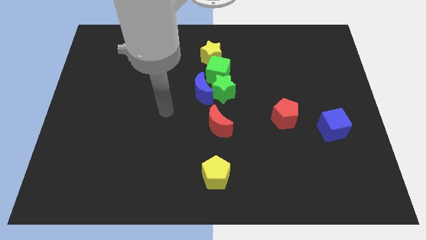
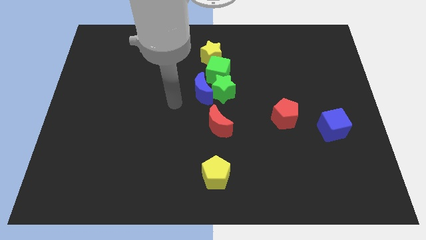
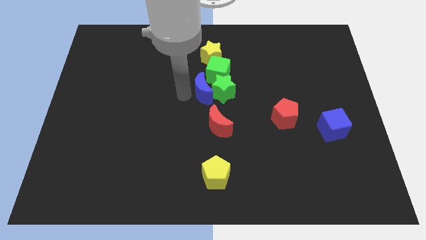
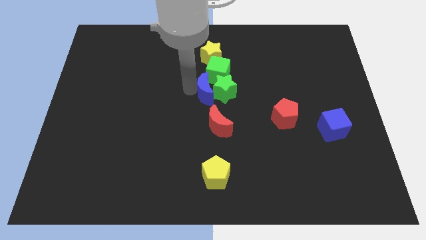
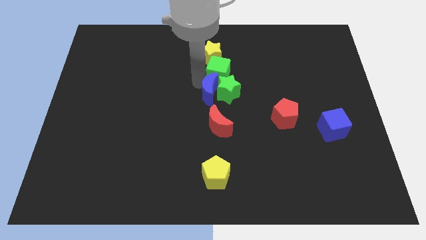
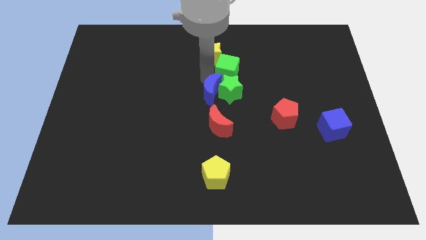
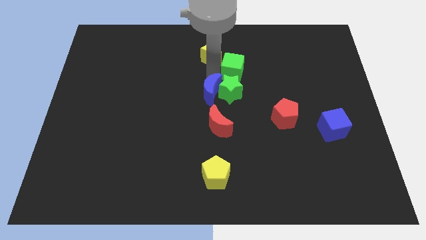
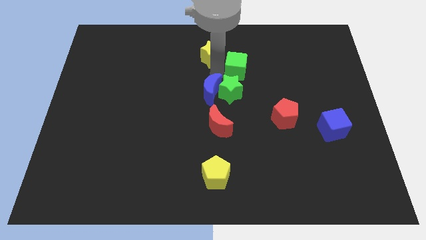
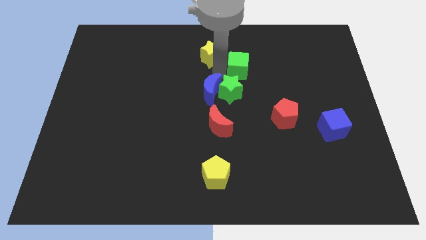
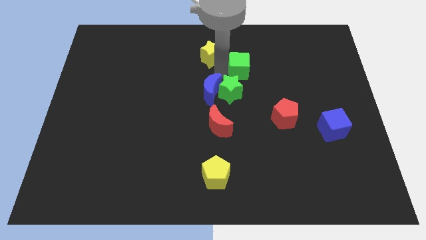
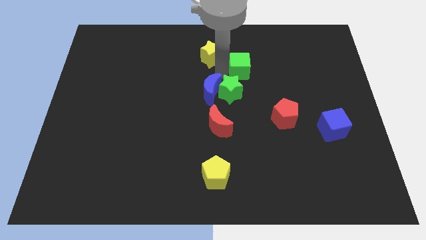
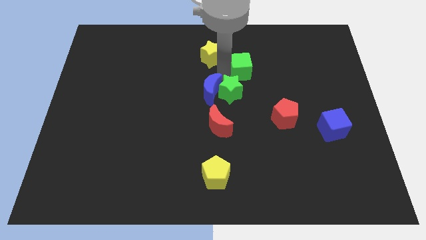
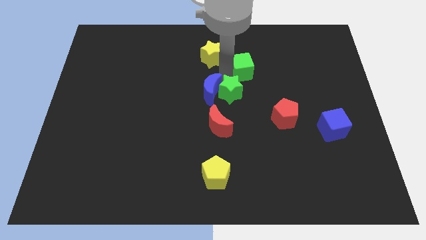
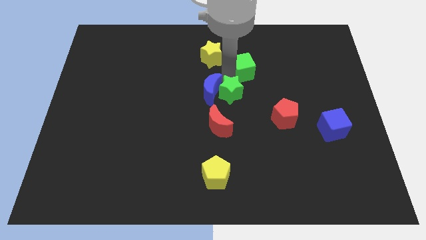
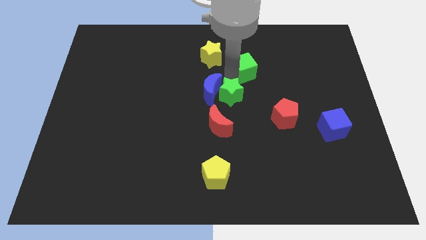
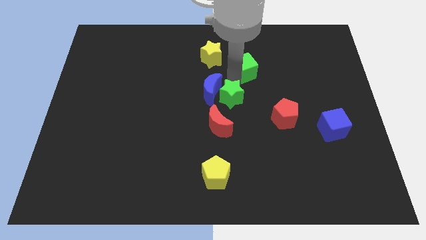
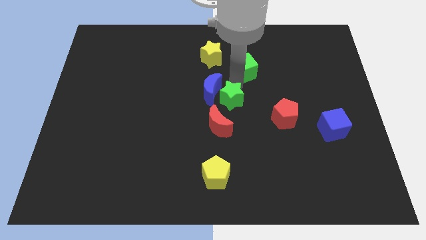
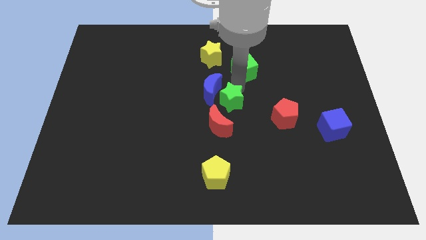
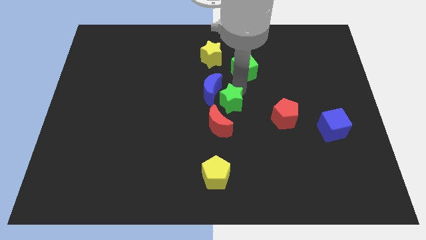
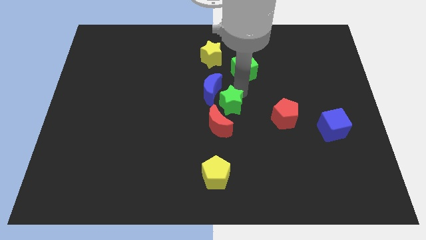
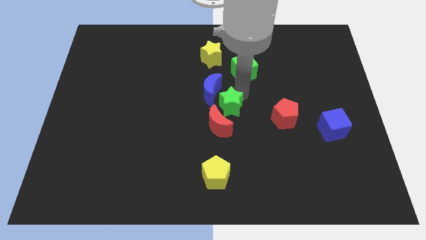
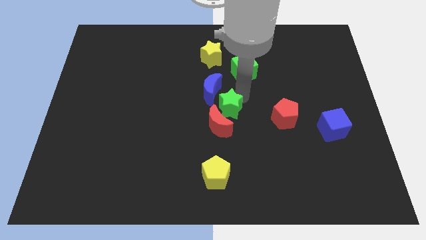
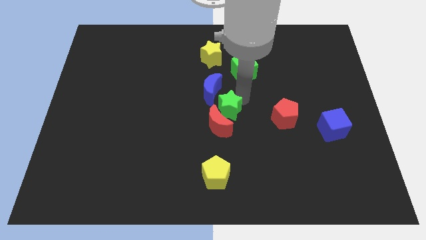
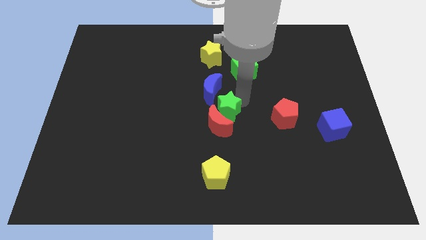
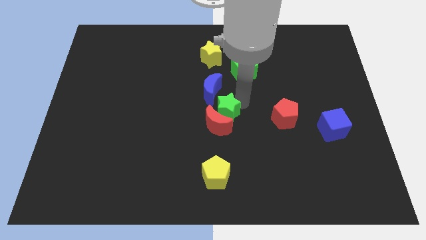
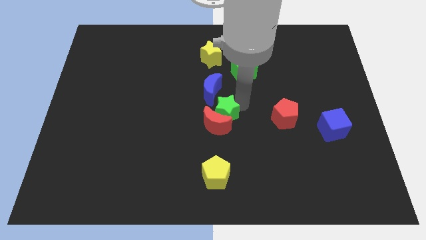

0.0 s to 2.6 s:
separate the green star from the blue moon and green cube

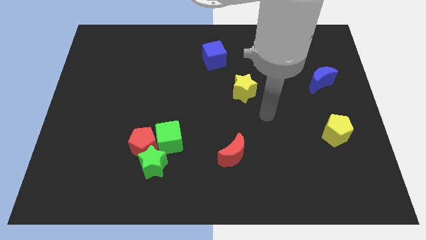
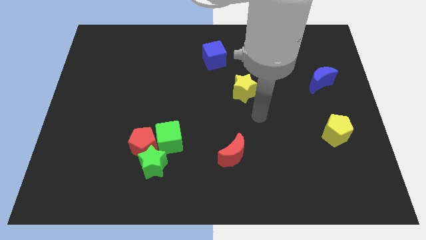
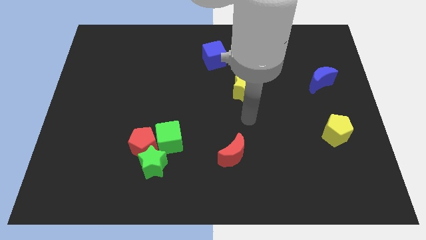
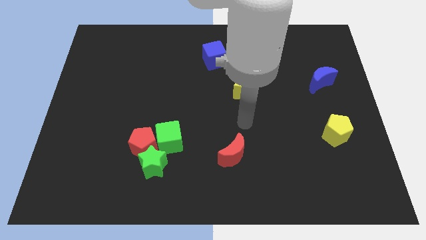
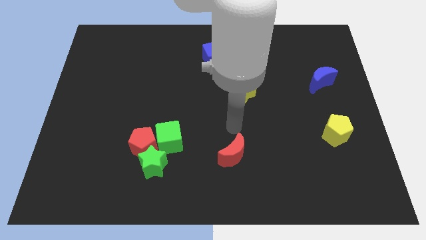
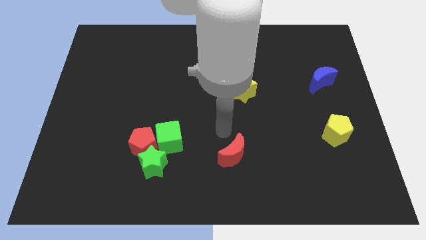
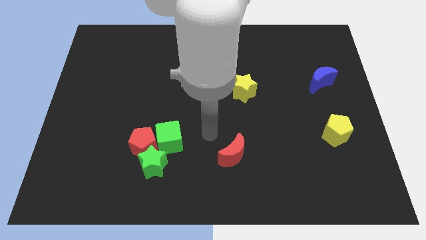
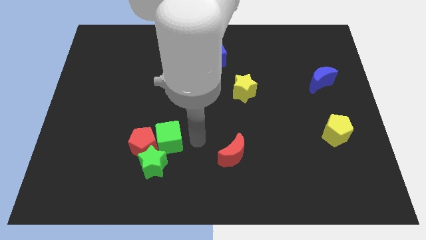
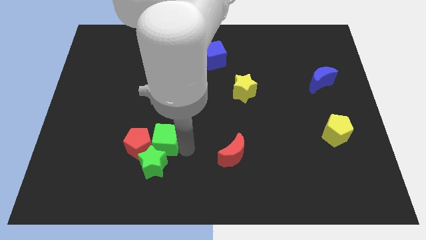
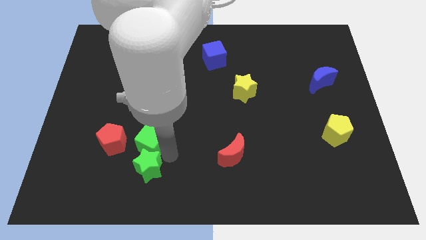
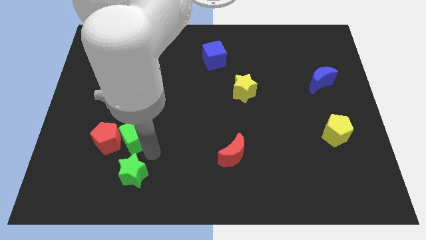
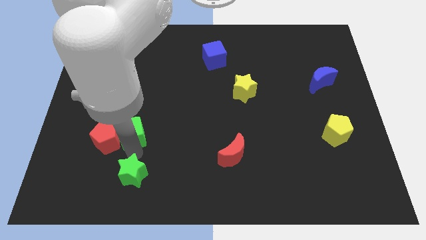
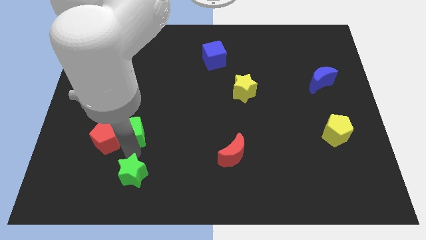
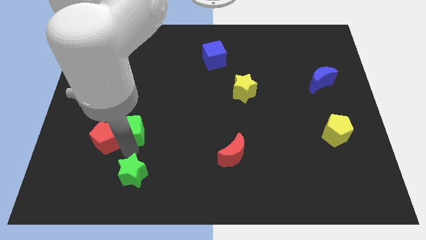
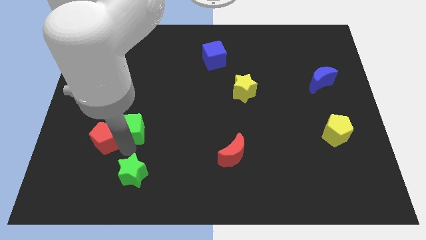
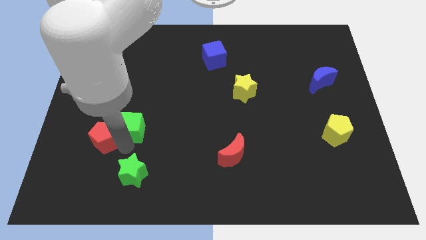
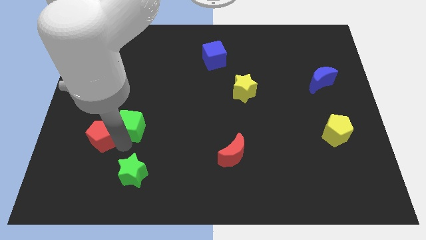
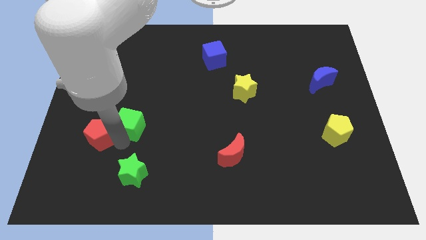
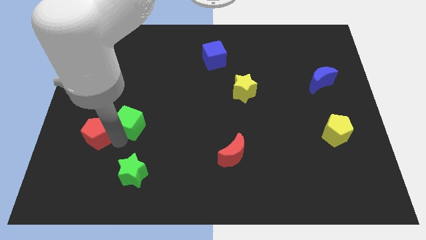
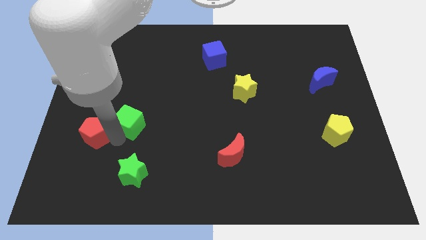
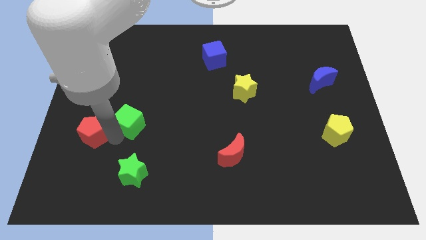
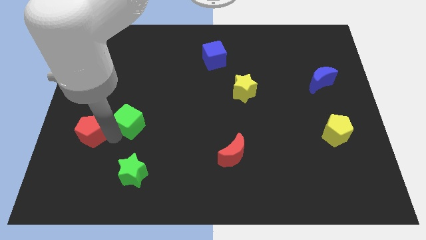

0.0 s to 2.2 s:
pull the red pentagon apart from the green star and green cube

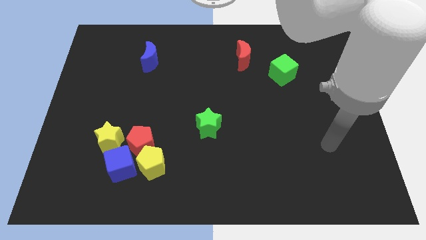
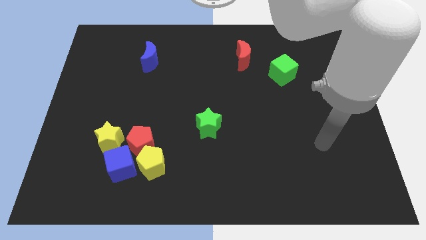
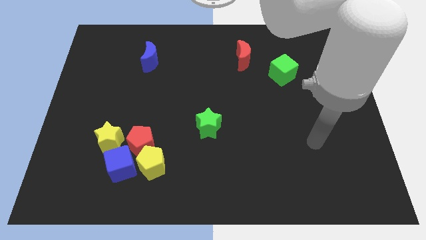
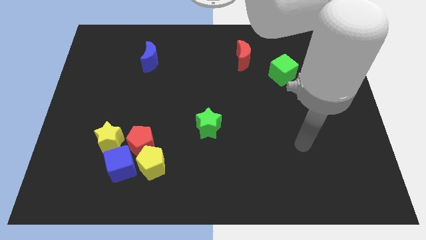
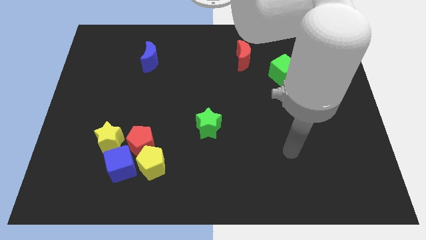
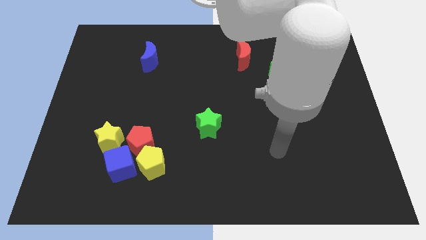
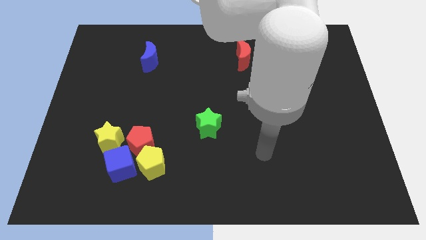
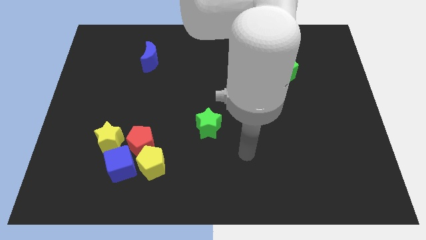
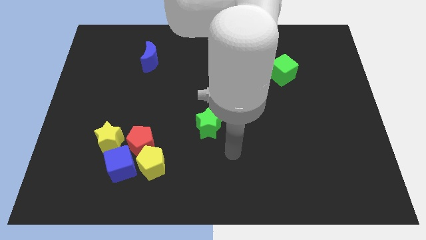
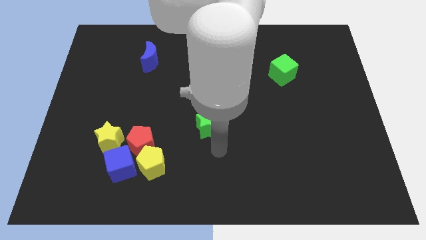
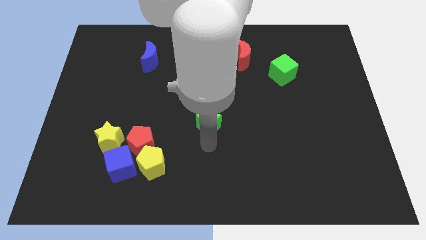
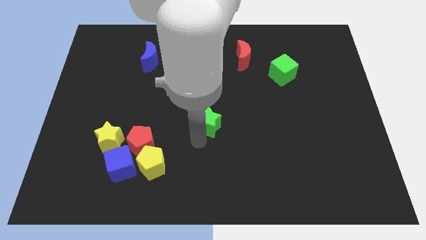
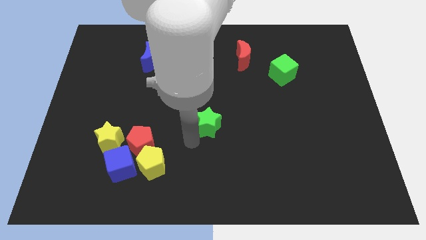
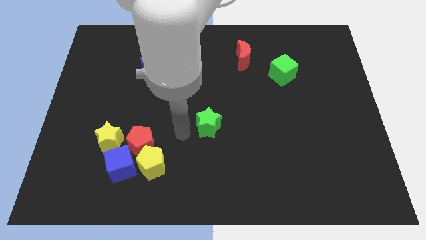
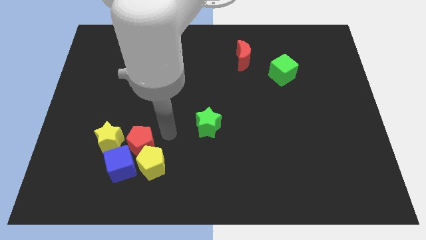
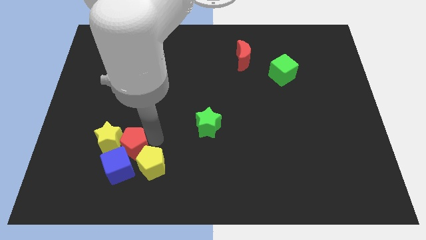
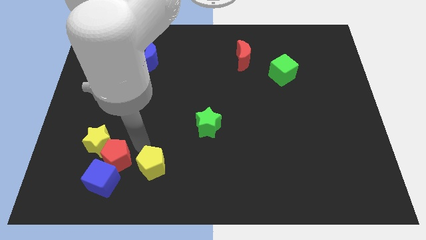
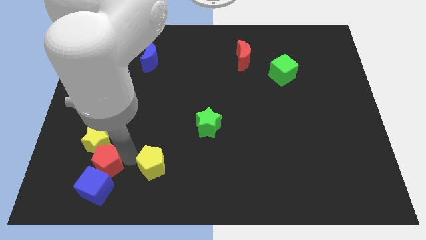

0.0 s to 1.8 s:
move the yellow pentagon away from the red pentagon and blue cube
